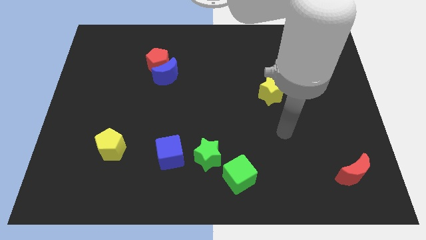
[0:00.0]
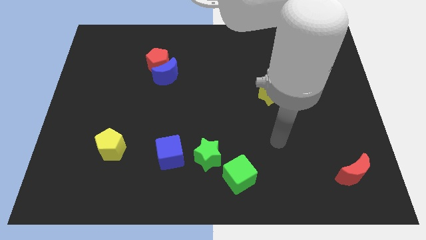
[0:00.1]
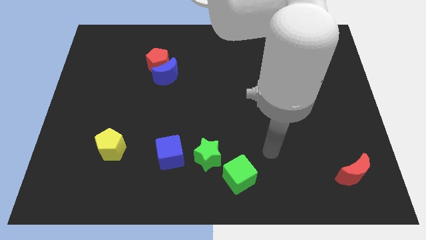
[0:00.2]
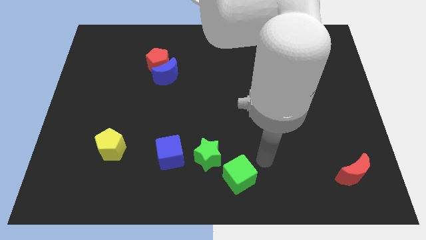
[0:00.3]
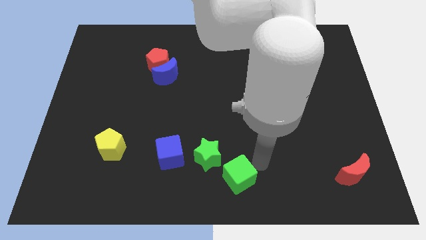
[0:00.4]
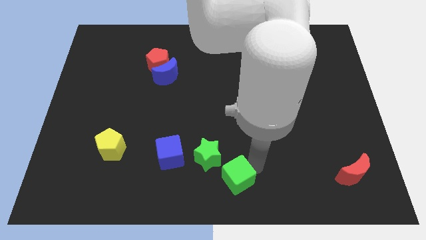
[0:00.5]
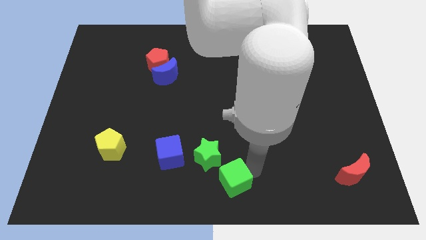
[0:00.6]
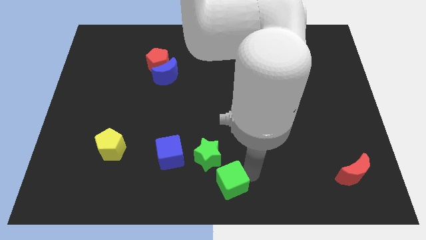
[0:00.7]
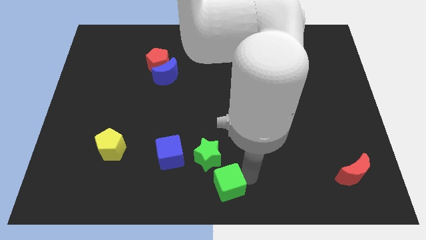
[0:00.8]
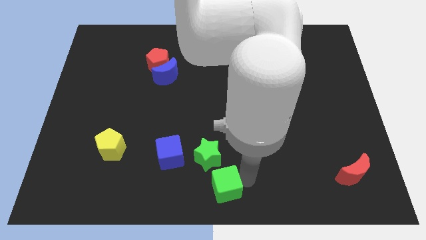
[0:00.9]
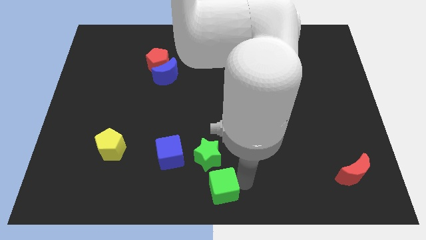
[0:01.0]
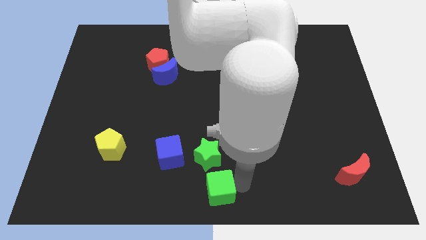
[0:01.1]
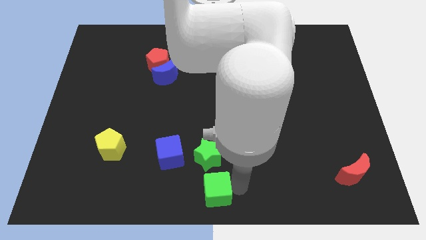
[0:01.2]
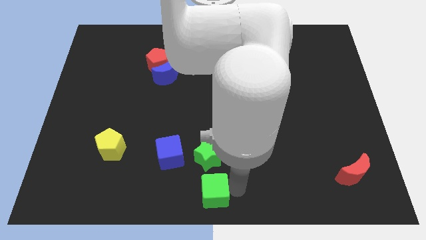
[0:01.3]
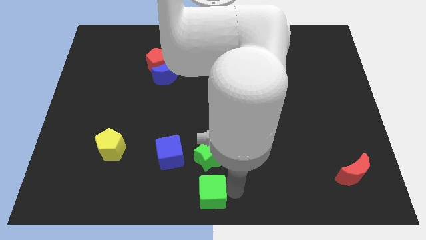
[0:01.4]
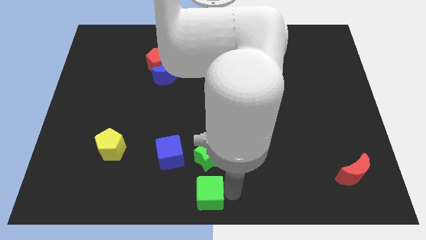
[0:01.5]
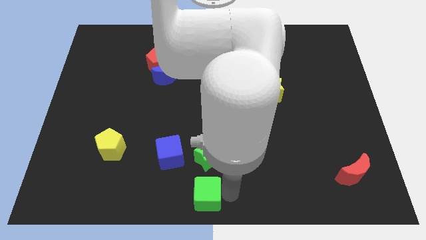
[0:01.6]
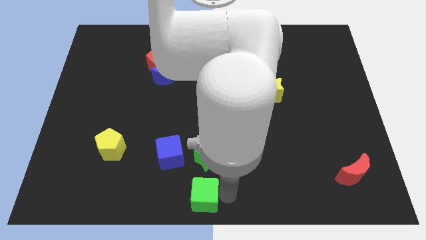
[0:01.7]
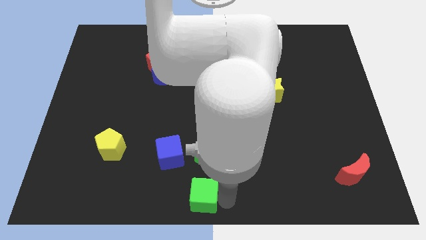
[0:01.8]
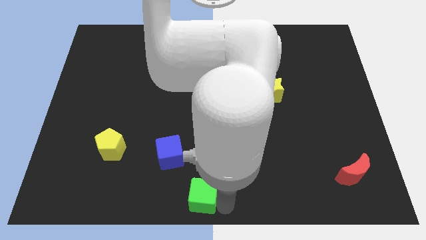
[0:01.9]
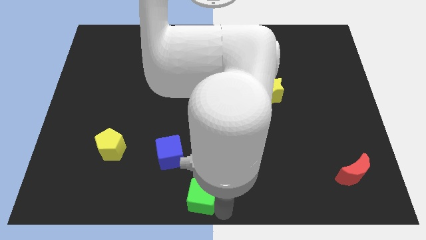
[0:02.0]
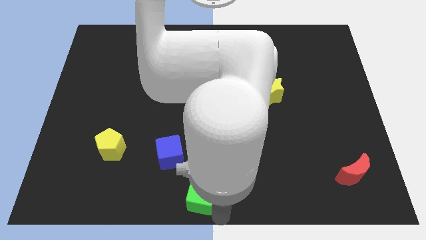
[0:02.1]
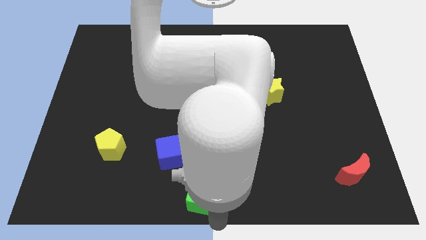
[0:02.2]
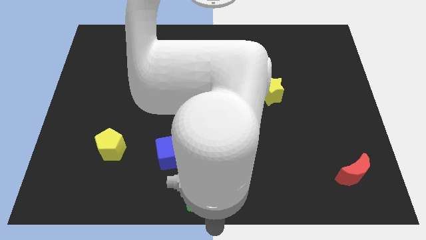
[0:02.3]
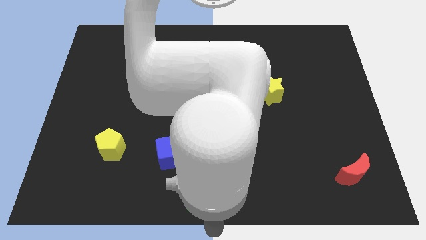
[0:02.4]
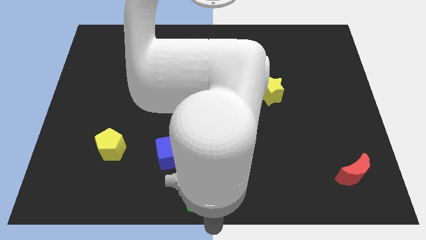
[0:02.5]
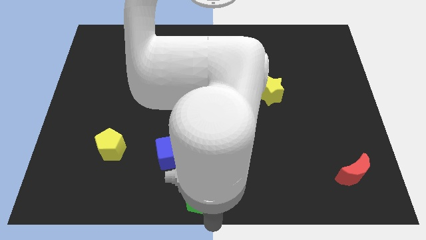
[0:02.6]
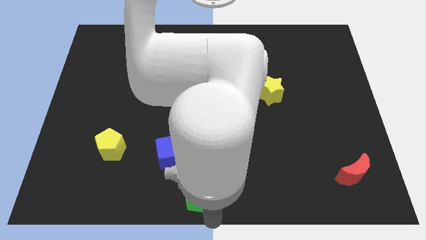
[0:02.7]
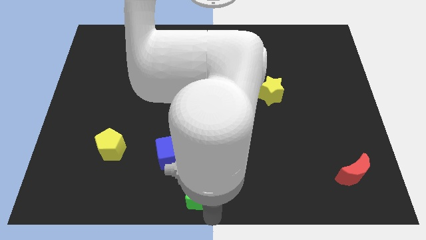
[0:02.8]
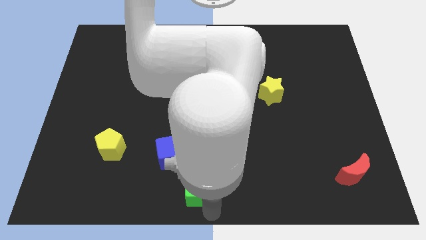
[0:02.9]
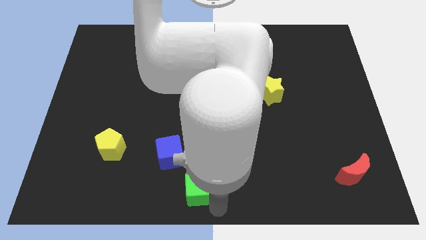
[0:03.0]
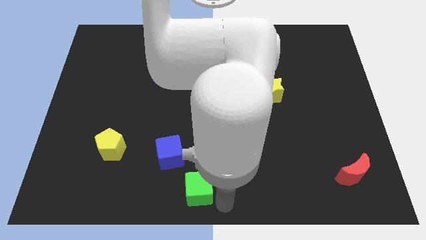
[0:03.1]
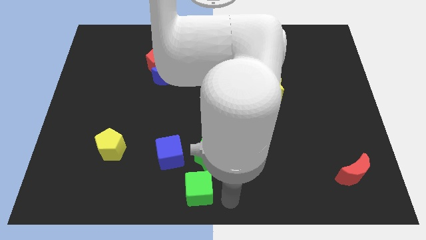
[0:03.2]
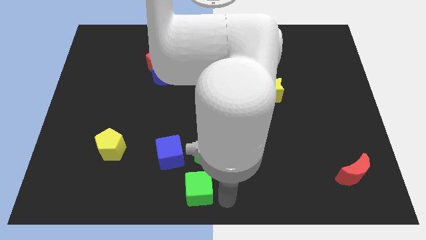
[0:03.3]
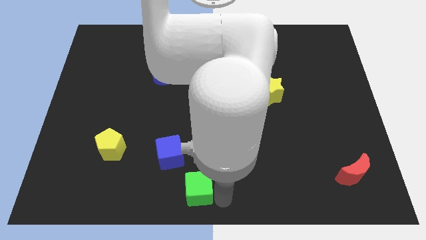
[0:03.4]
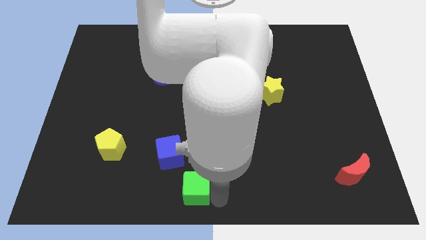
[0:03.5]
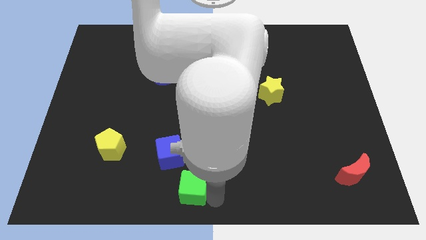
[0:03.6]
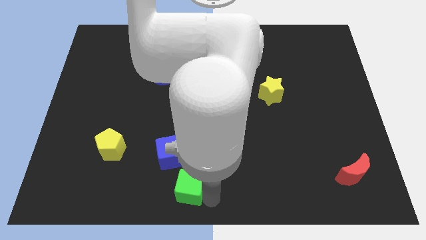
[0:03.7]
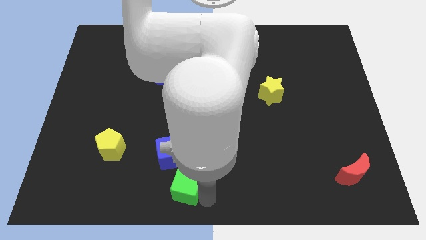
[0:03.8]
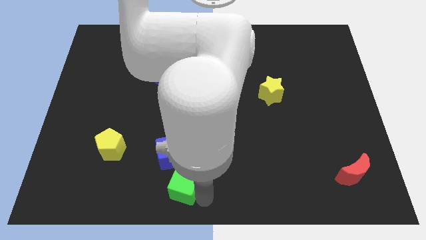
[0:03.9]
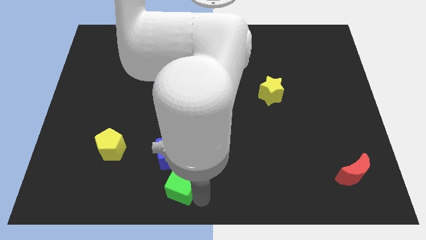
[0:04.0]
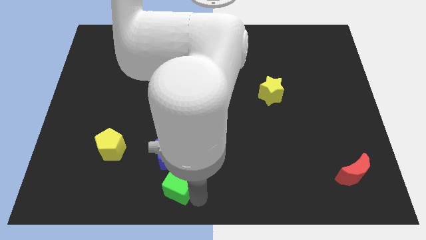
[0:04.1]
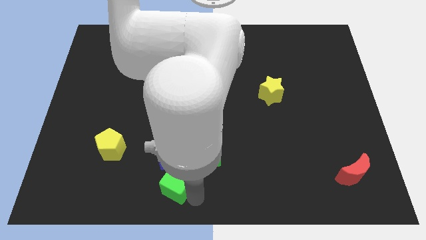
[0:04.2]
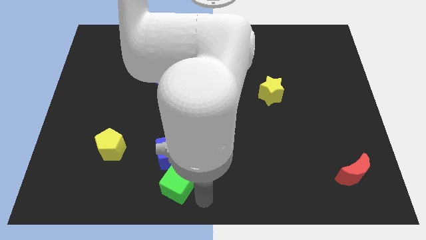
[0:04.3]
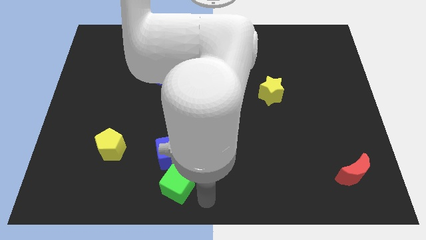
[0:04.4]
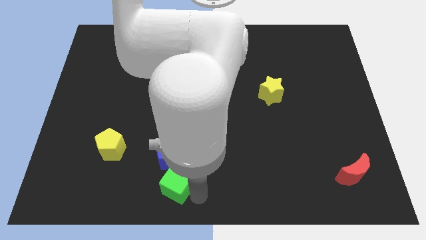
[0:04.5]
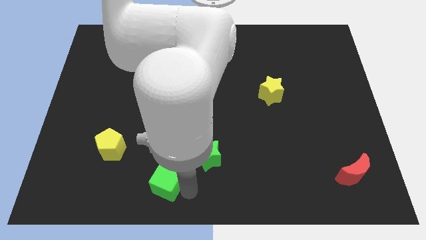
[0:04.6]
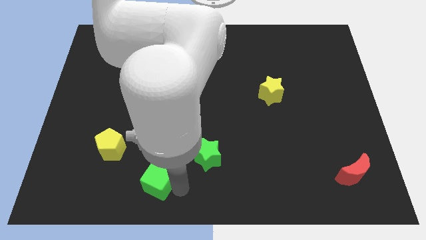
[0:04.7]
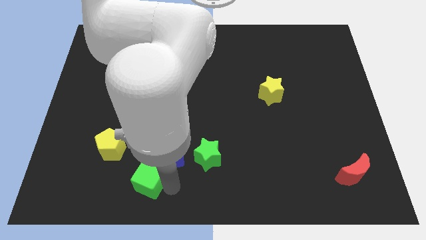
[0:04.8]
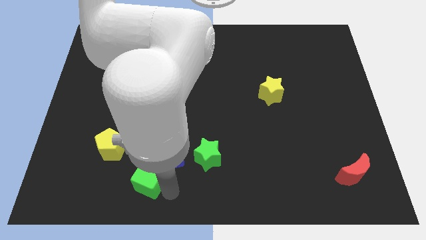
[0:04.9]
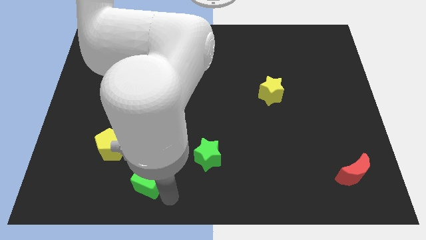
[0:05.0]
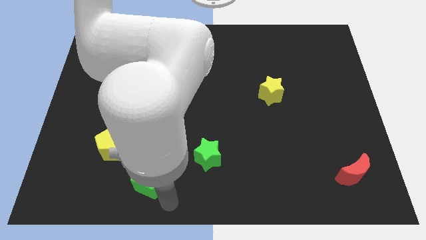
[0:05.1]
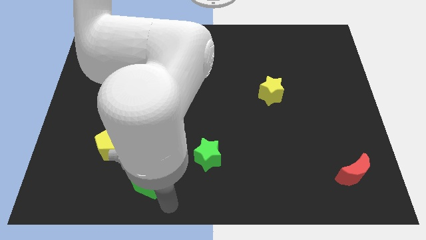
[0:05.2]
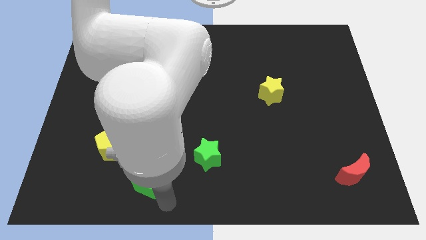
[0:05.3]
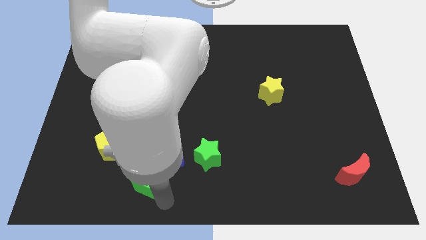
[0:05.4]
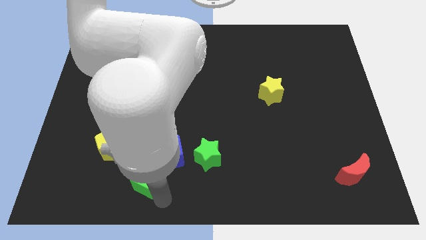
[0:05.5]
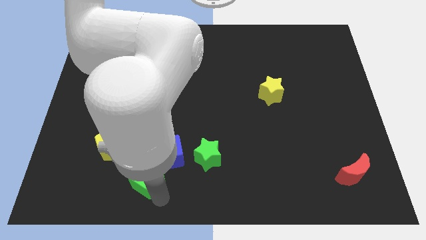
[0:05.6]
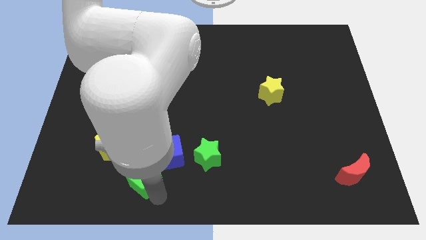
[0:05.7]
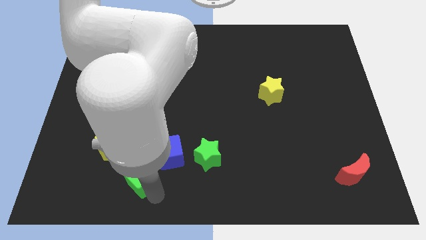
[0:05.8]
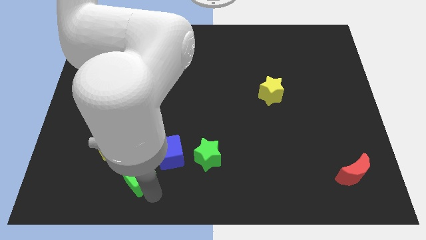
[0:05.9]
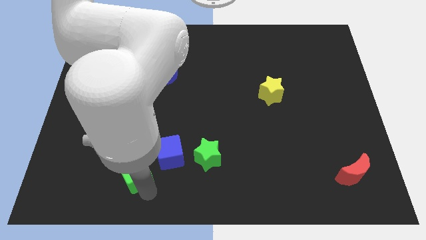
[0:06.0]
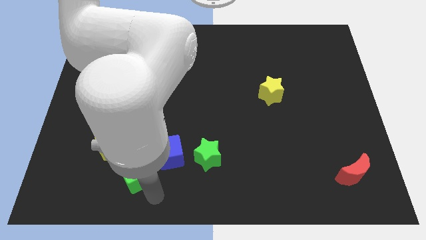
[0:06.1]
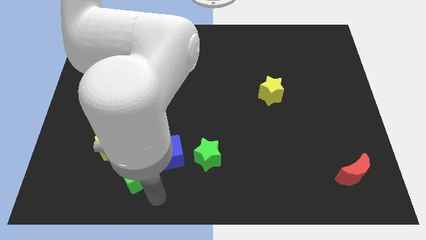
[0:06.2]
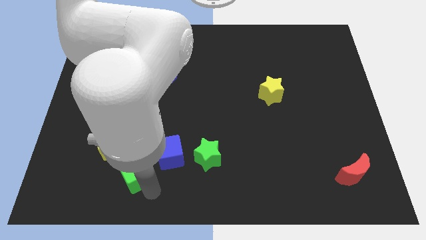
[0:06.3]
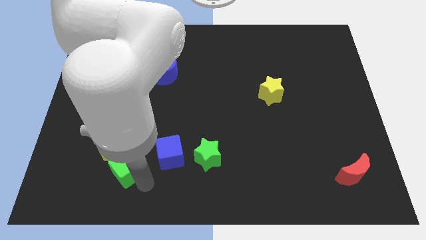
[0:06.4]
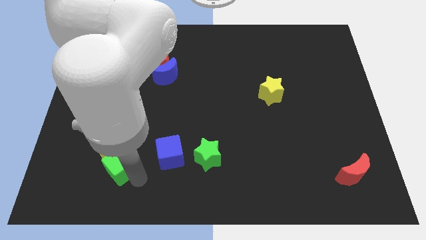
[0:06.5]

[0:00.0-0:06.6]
move the green cube close to the yellow pentagon

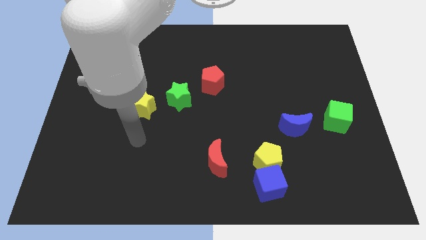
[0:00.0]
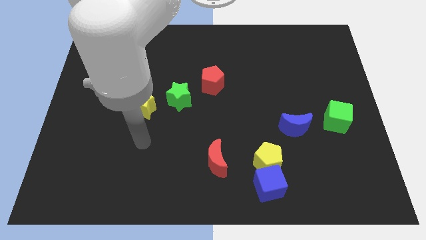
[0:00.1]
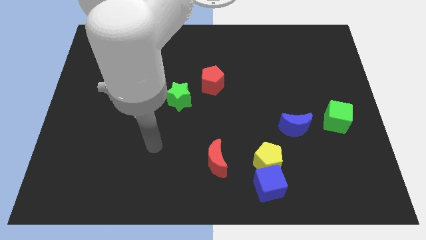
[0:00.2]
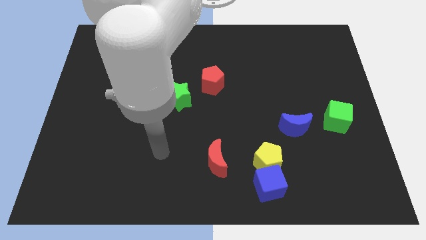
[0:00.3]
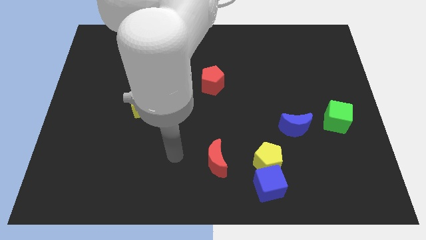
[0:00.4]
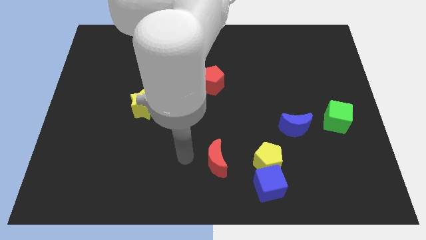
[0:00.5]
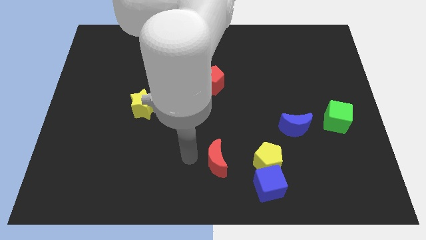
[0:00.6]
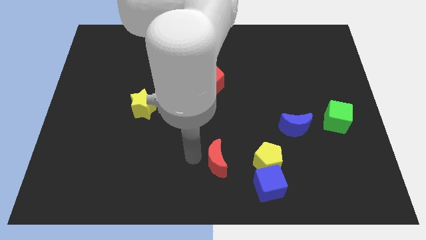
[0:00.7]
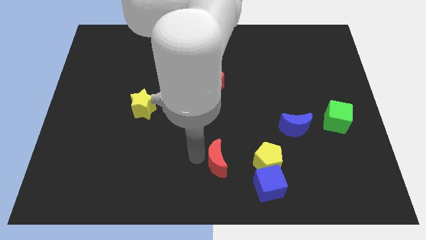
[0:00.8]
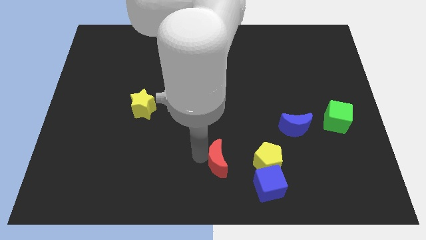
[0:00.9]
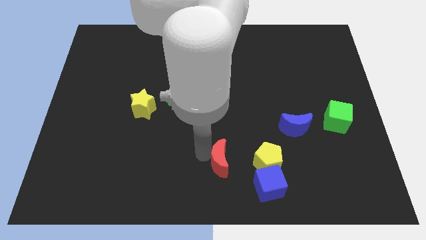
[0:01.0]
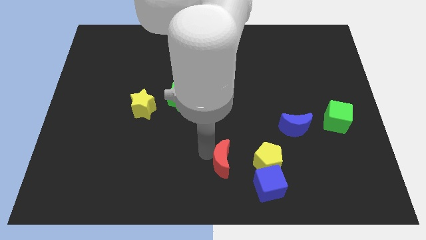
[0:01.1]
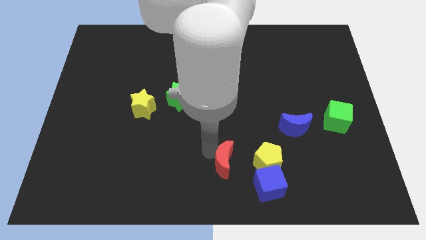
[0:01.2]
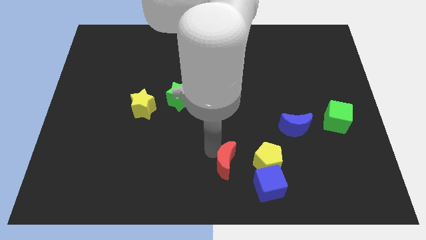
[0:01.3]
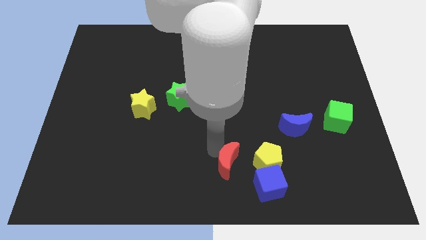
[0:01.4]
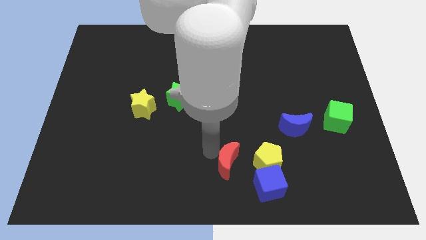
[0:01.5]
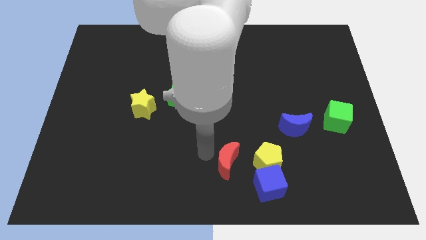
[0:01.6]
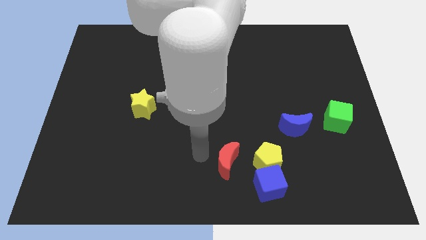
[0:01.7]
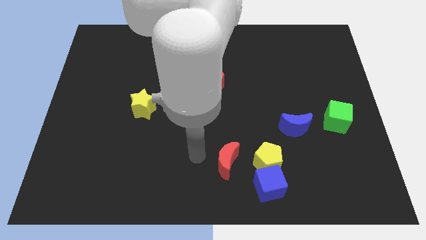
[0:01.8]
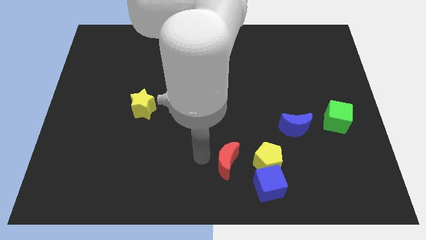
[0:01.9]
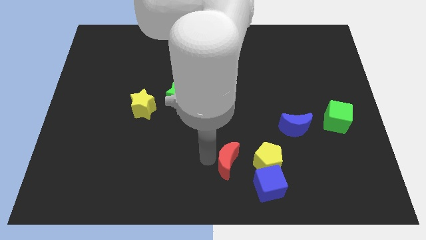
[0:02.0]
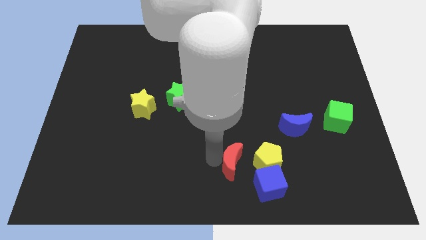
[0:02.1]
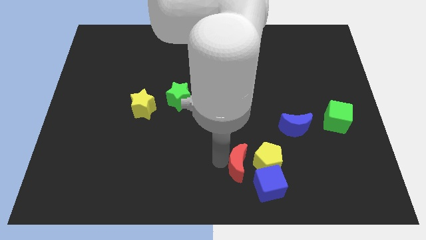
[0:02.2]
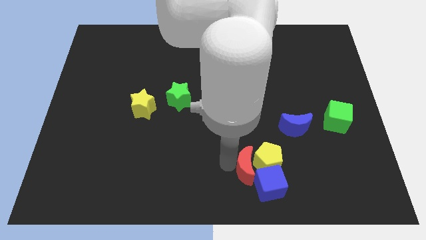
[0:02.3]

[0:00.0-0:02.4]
put the red moon close to the yellow pentagon
